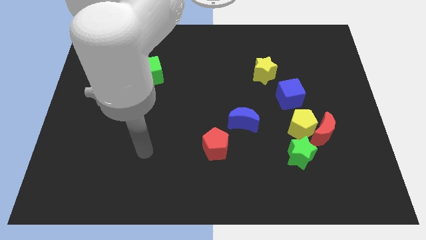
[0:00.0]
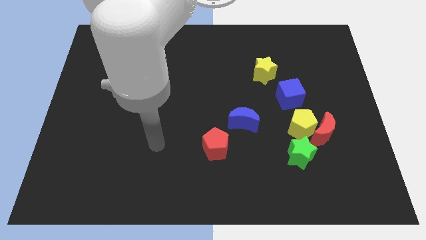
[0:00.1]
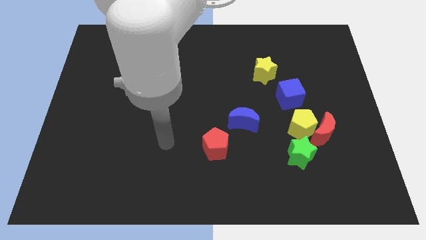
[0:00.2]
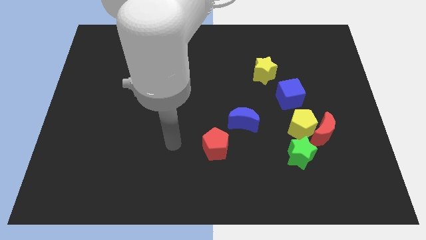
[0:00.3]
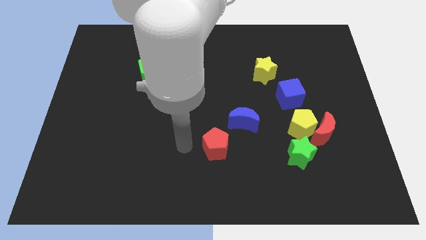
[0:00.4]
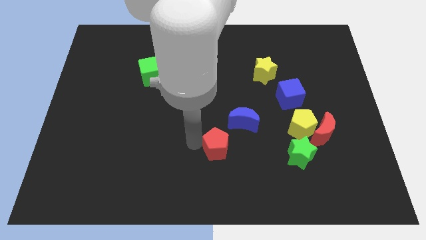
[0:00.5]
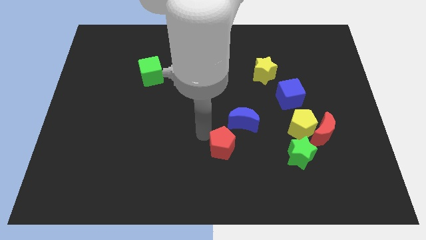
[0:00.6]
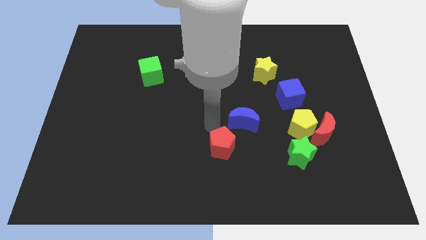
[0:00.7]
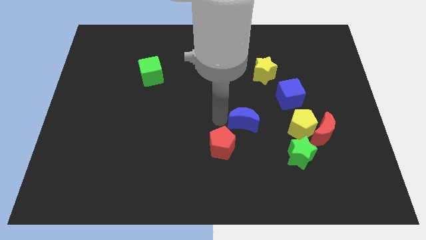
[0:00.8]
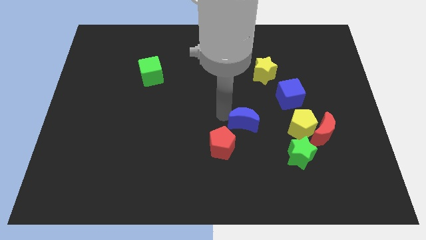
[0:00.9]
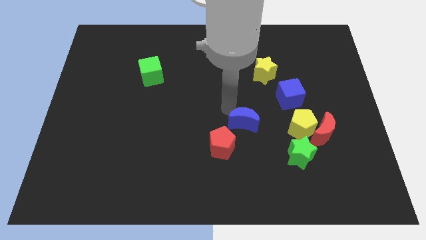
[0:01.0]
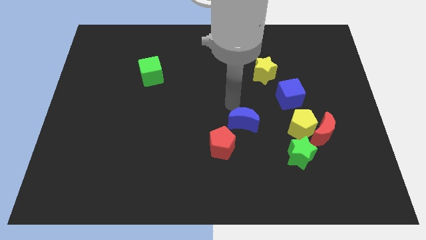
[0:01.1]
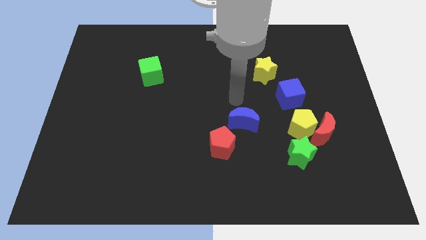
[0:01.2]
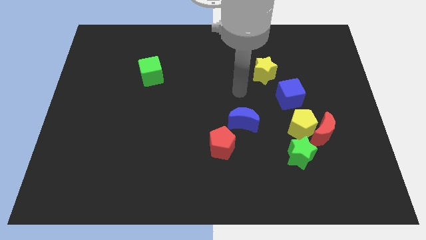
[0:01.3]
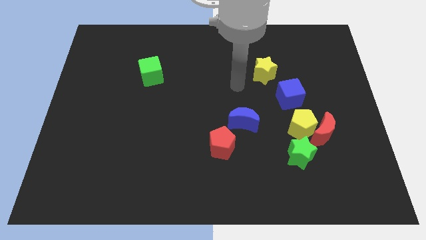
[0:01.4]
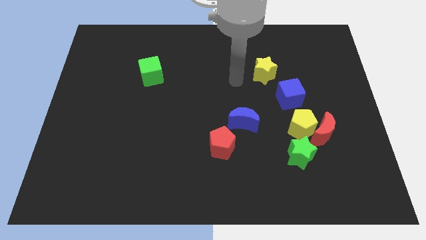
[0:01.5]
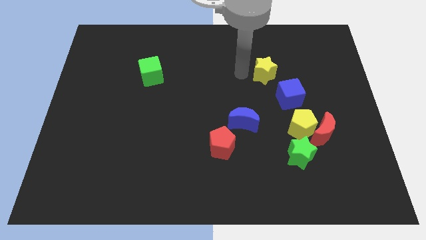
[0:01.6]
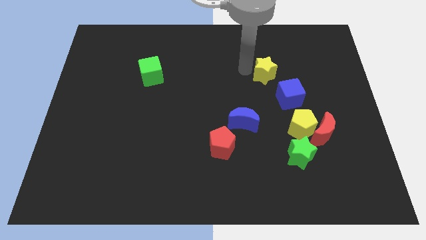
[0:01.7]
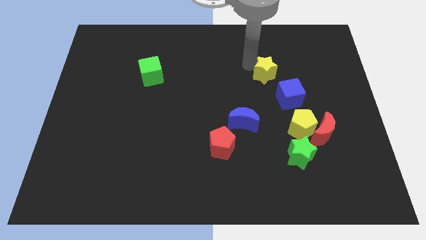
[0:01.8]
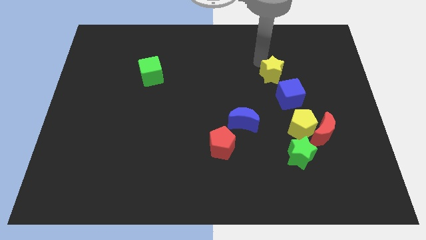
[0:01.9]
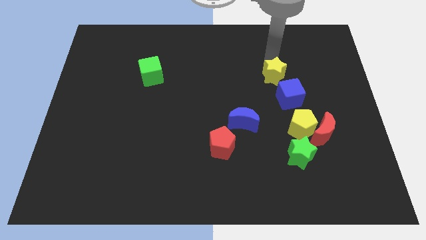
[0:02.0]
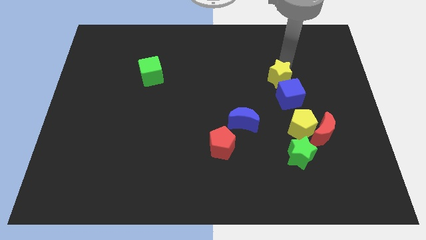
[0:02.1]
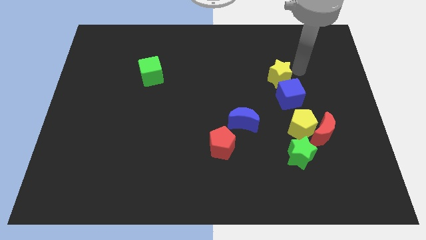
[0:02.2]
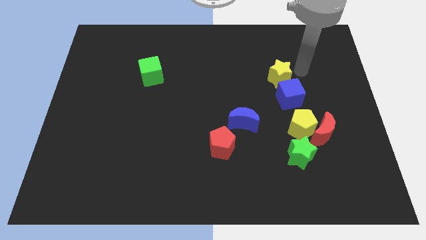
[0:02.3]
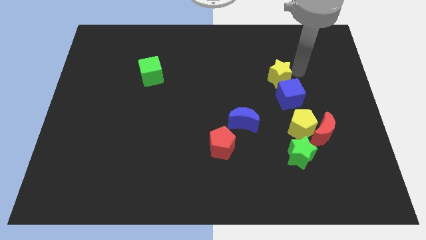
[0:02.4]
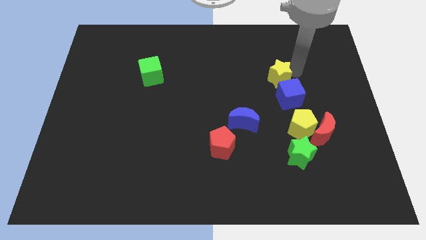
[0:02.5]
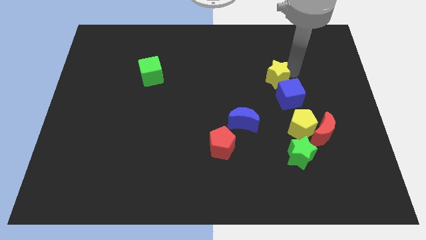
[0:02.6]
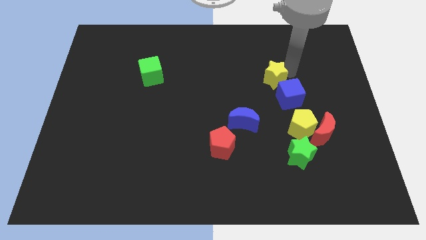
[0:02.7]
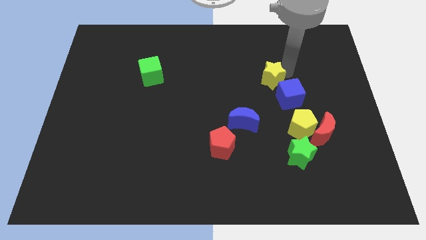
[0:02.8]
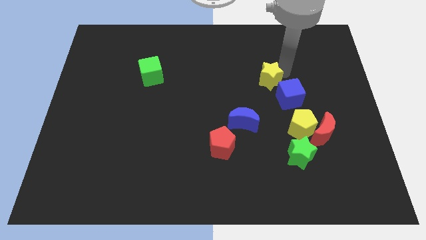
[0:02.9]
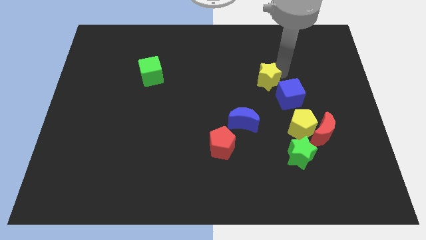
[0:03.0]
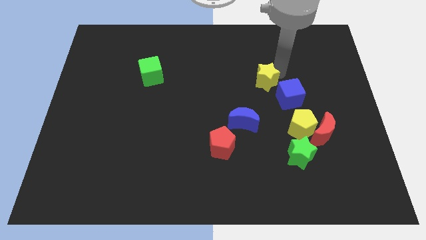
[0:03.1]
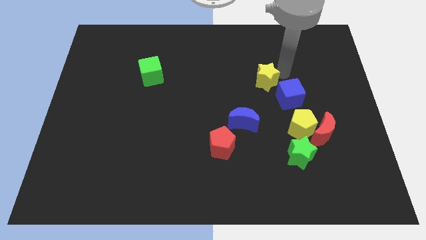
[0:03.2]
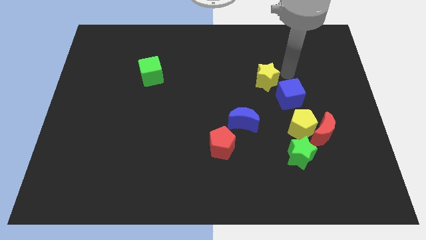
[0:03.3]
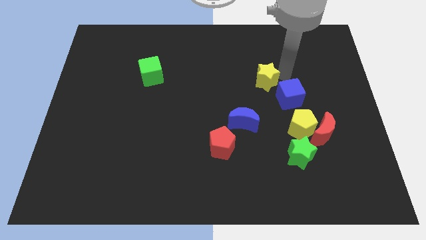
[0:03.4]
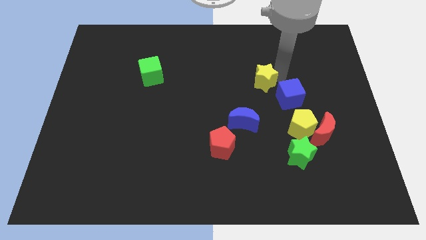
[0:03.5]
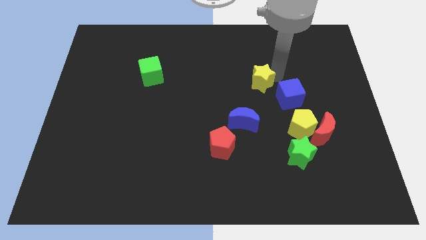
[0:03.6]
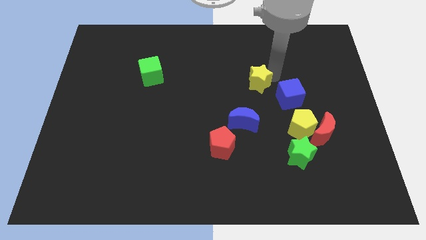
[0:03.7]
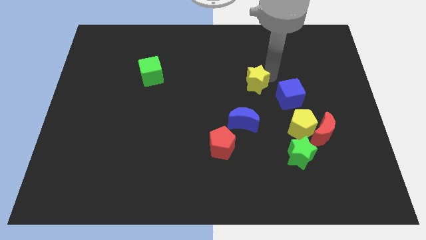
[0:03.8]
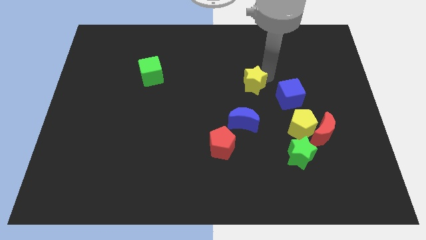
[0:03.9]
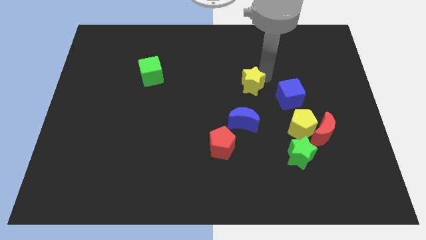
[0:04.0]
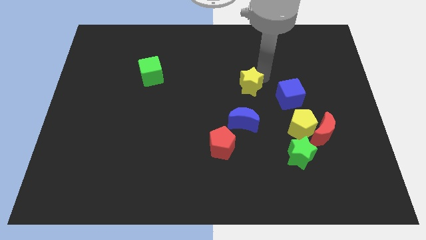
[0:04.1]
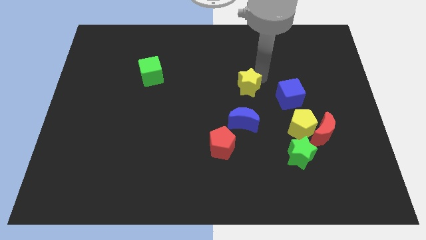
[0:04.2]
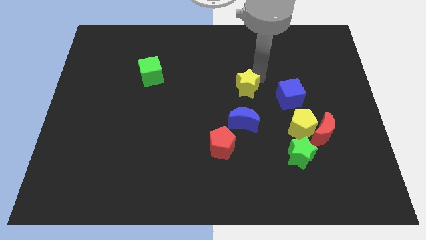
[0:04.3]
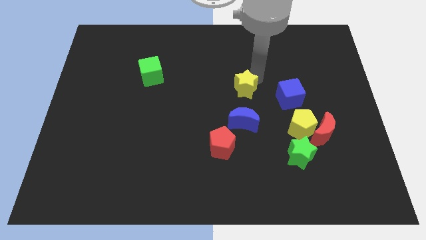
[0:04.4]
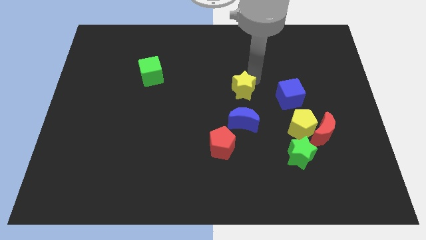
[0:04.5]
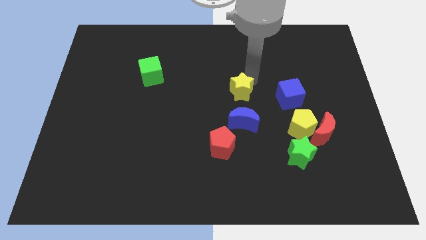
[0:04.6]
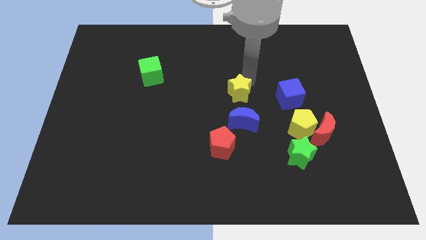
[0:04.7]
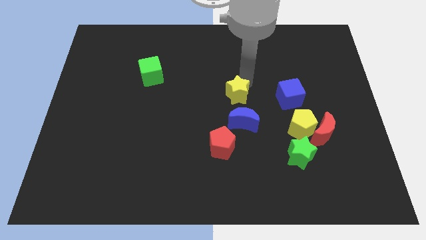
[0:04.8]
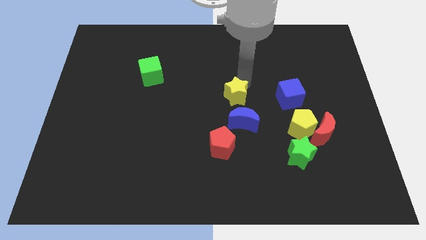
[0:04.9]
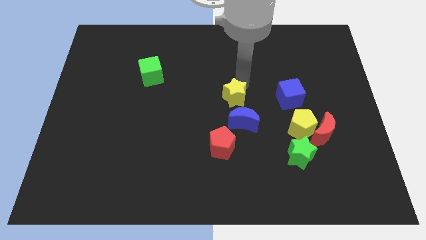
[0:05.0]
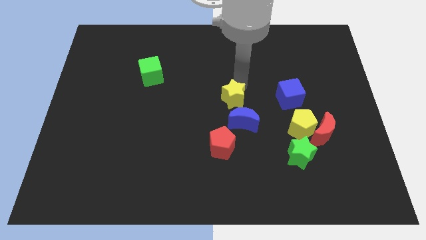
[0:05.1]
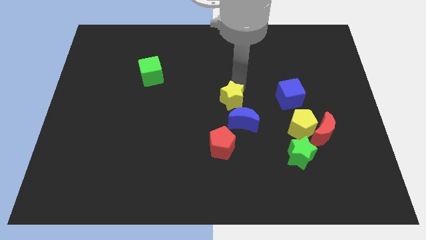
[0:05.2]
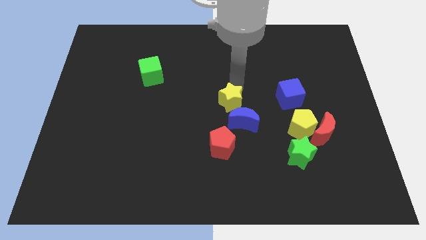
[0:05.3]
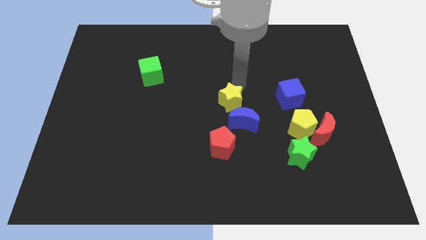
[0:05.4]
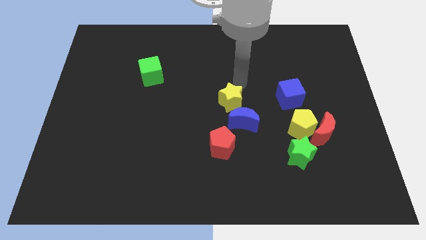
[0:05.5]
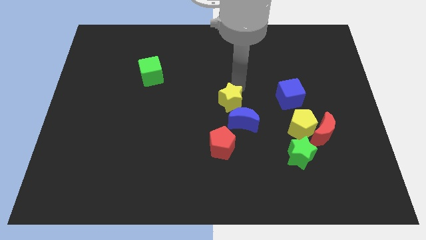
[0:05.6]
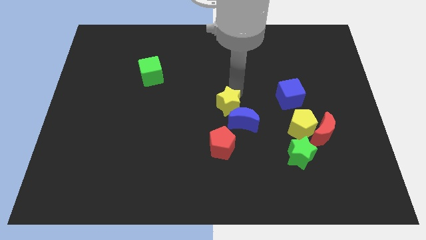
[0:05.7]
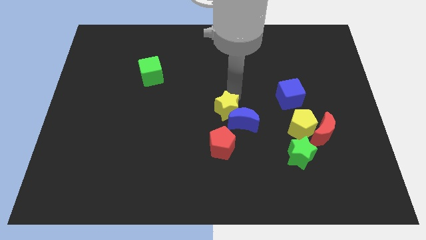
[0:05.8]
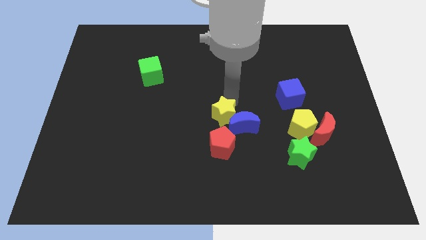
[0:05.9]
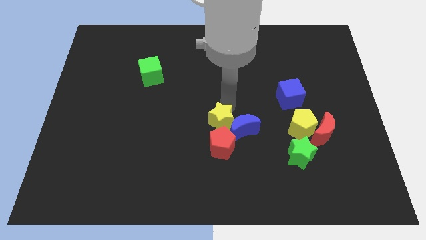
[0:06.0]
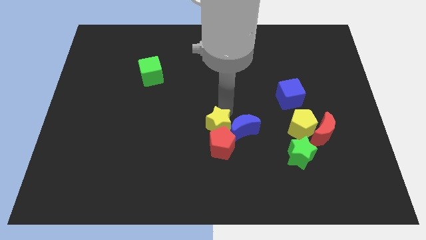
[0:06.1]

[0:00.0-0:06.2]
move the yellow star close to the red pentagon
